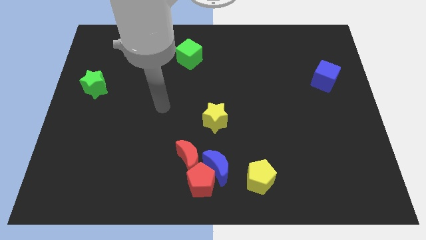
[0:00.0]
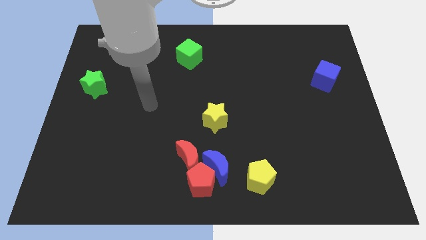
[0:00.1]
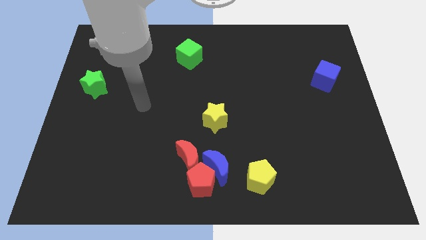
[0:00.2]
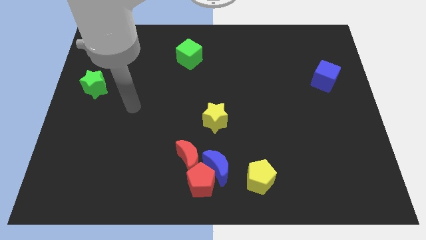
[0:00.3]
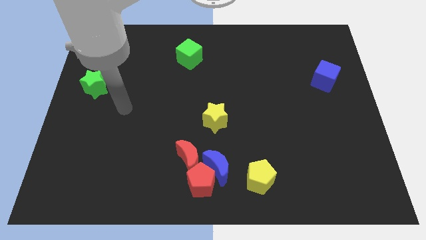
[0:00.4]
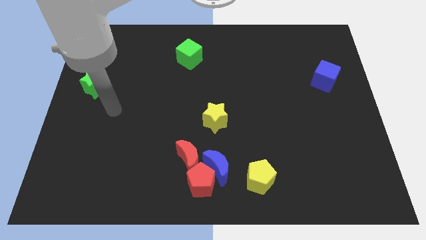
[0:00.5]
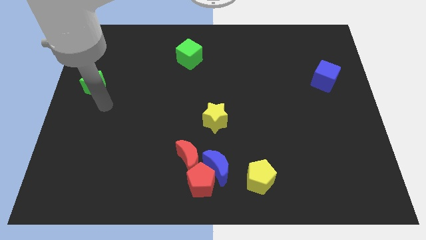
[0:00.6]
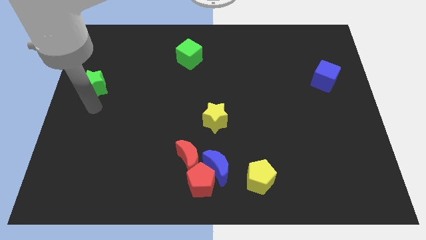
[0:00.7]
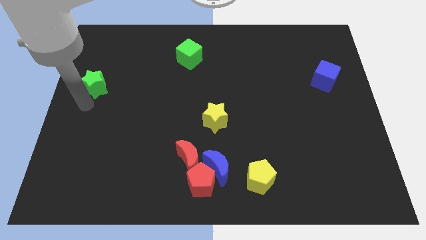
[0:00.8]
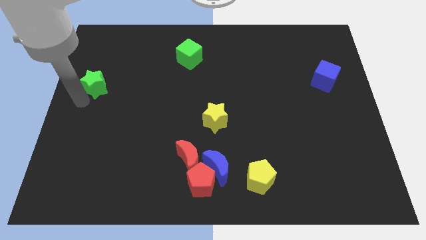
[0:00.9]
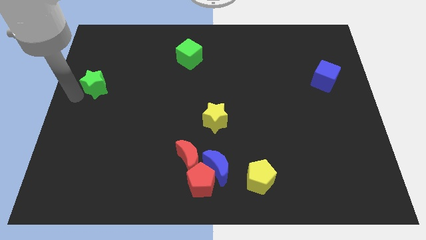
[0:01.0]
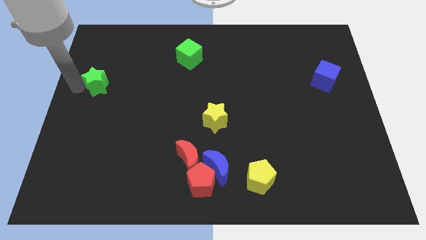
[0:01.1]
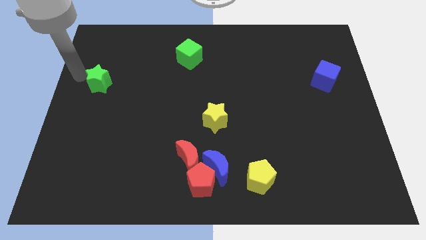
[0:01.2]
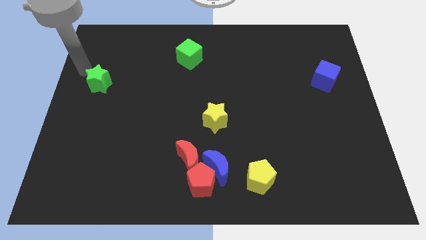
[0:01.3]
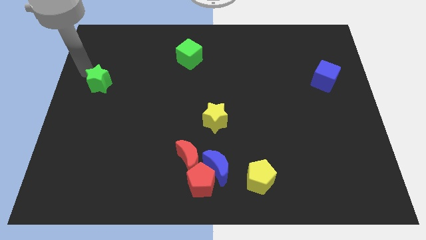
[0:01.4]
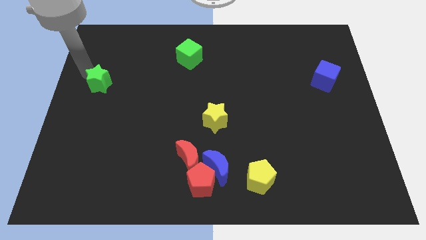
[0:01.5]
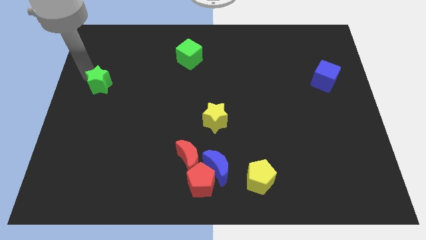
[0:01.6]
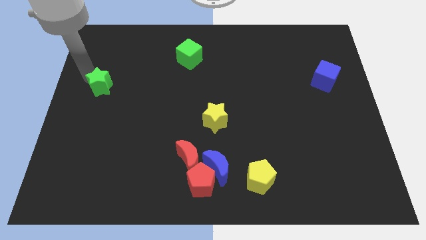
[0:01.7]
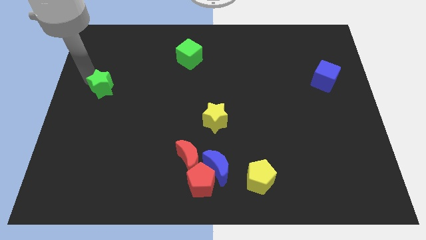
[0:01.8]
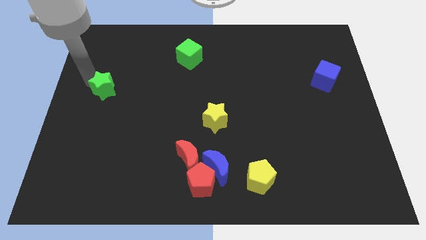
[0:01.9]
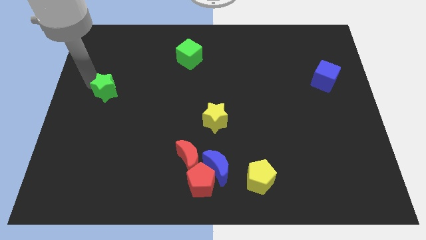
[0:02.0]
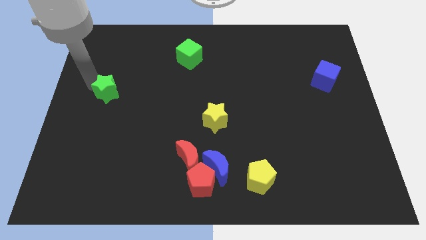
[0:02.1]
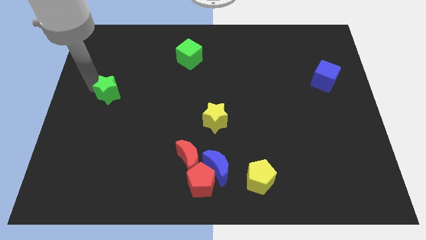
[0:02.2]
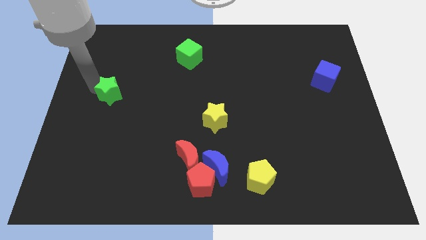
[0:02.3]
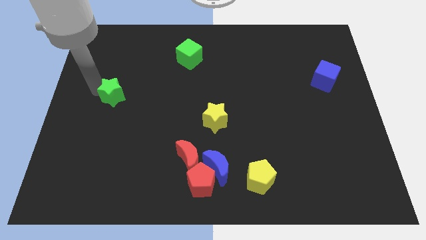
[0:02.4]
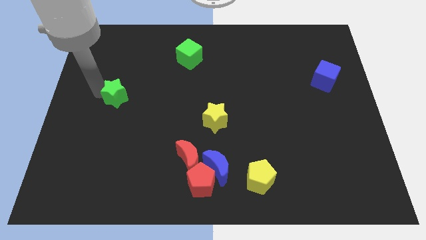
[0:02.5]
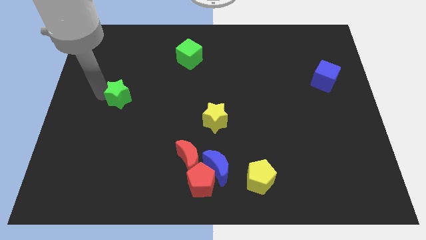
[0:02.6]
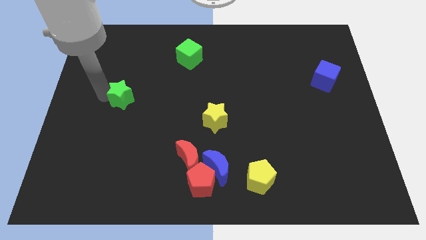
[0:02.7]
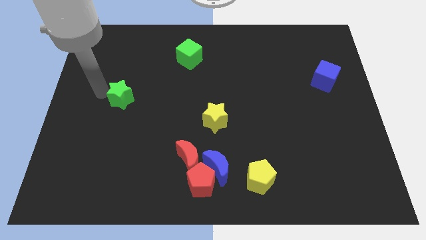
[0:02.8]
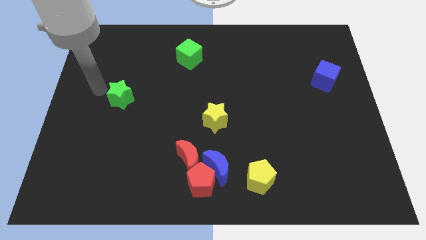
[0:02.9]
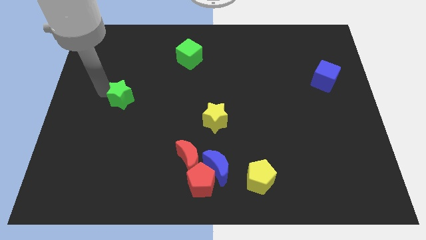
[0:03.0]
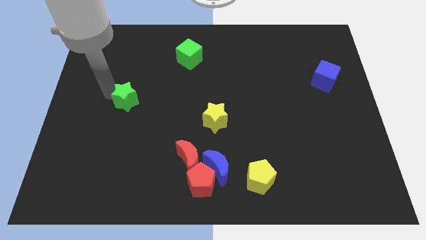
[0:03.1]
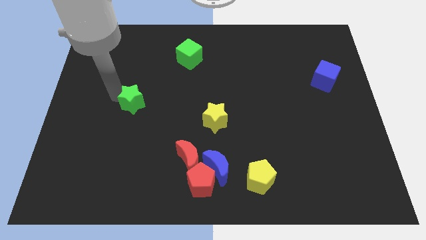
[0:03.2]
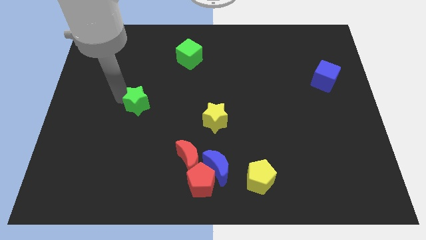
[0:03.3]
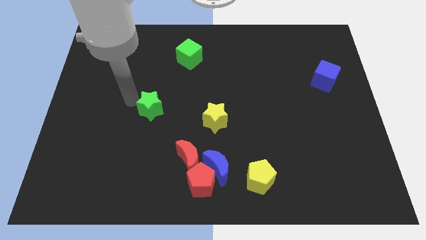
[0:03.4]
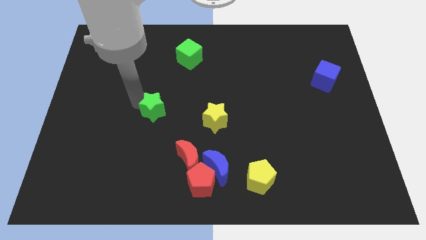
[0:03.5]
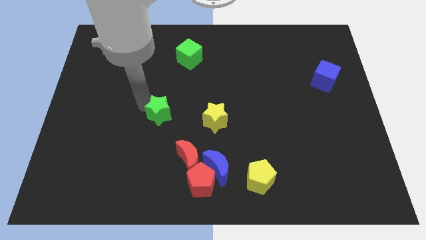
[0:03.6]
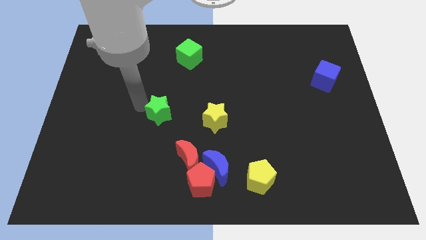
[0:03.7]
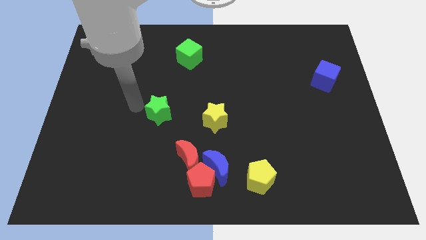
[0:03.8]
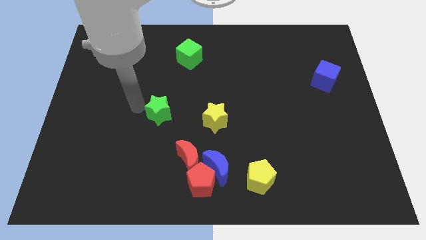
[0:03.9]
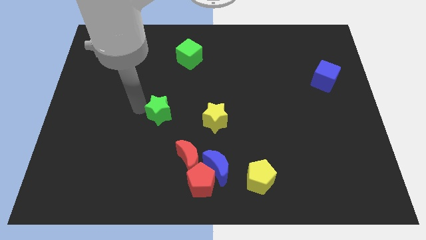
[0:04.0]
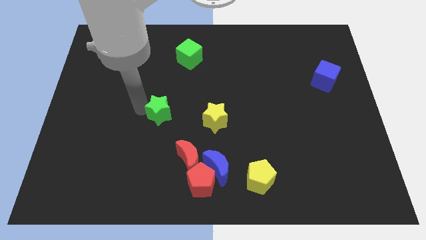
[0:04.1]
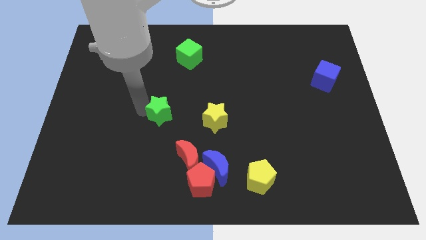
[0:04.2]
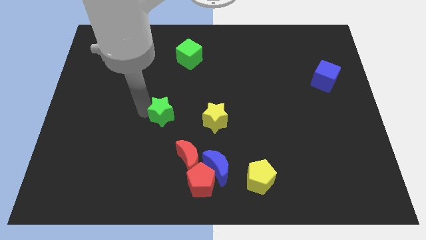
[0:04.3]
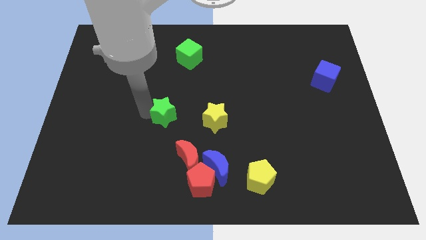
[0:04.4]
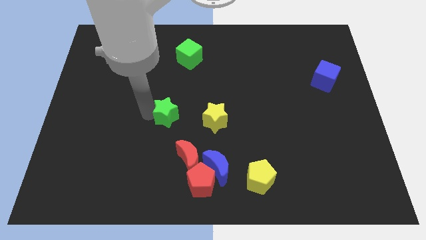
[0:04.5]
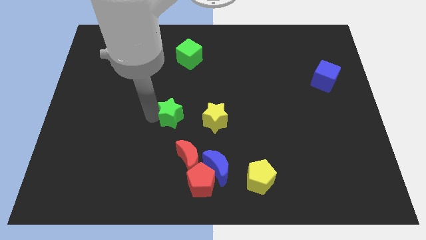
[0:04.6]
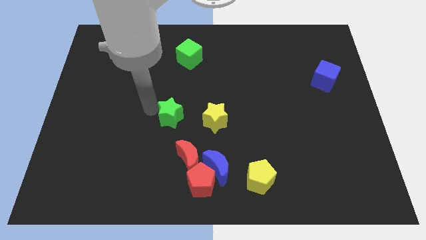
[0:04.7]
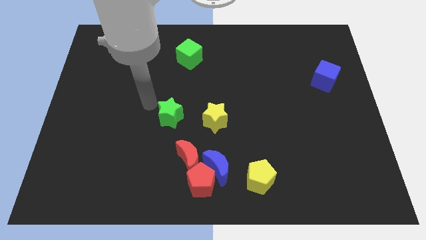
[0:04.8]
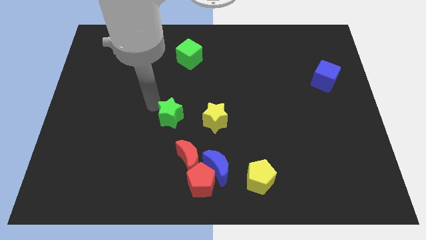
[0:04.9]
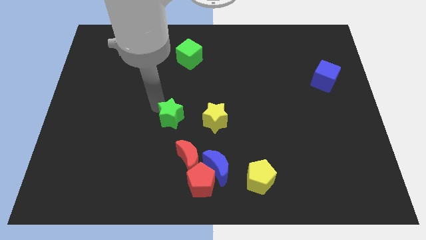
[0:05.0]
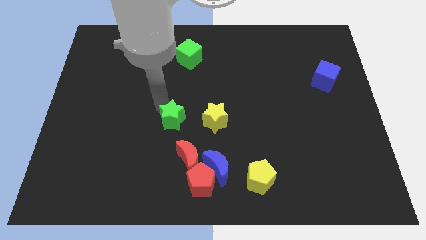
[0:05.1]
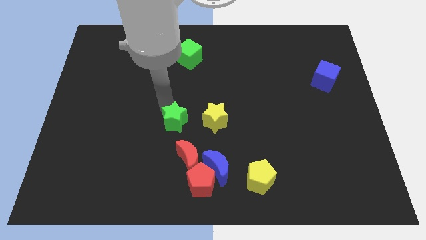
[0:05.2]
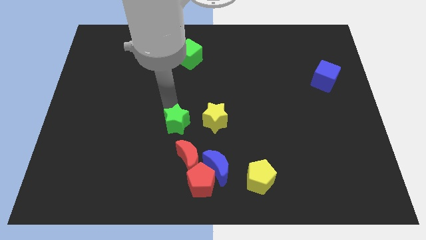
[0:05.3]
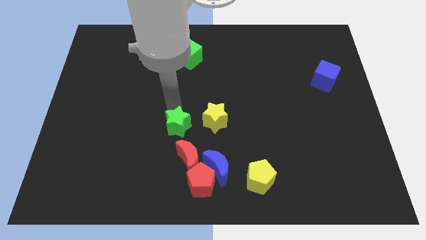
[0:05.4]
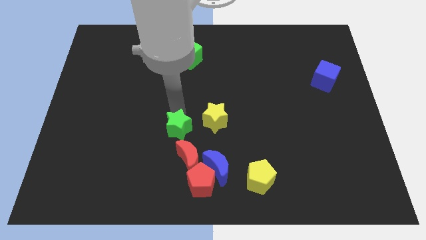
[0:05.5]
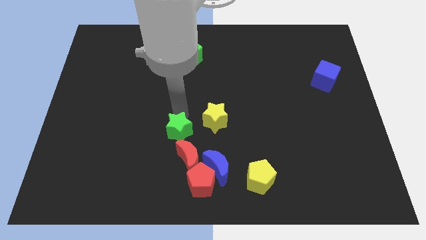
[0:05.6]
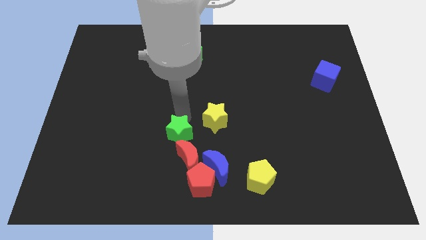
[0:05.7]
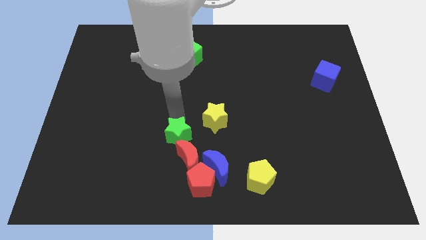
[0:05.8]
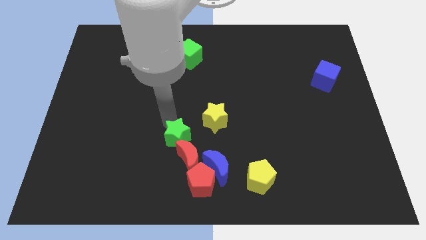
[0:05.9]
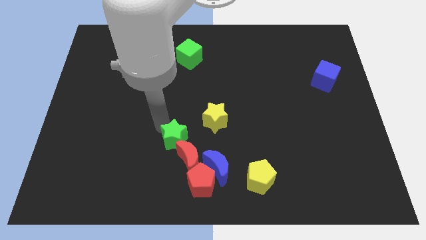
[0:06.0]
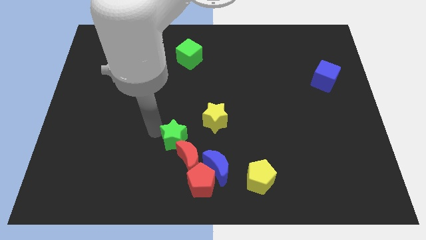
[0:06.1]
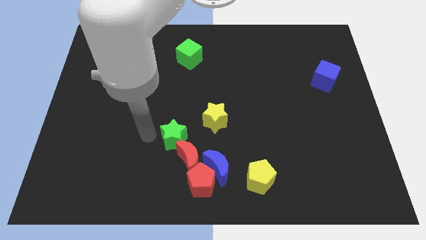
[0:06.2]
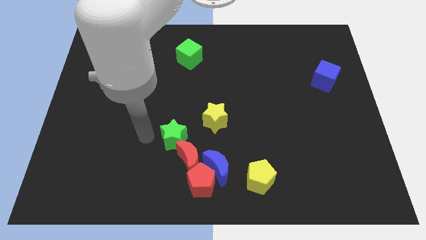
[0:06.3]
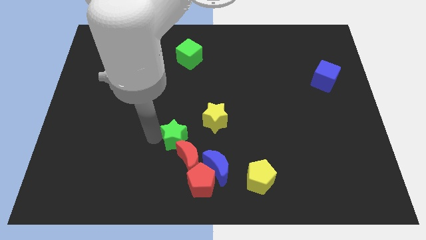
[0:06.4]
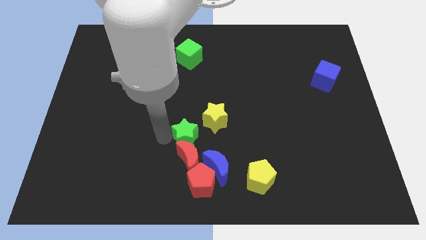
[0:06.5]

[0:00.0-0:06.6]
put the green star diagonally up and to the right of the red moon

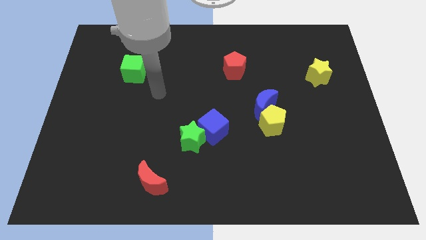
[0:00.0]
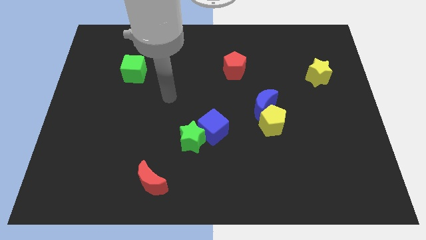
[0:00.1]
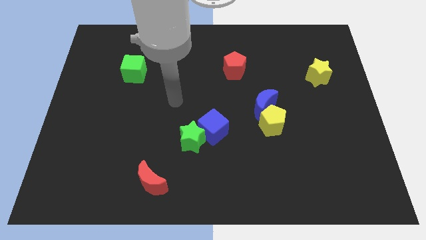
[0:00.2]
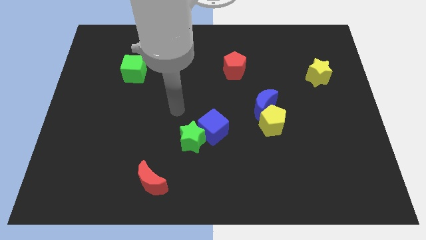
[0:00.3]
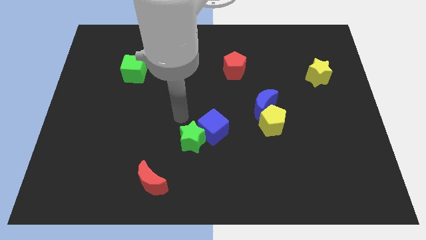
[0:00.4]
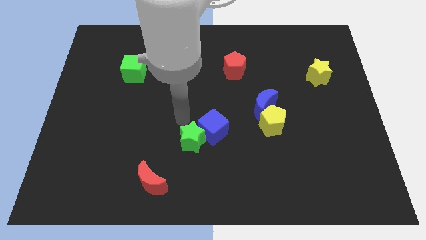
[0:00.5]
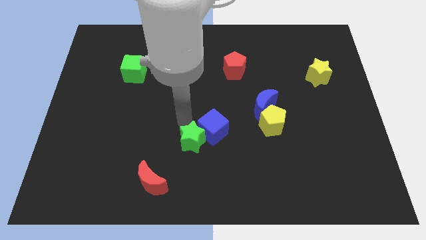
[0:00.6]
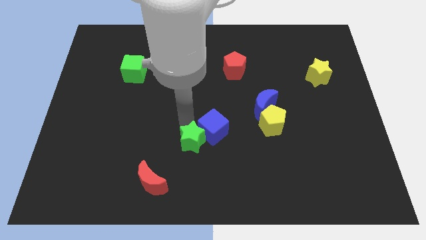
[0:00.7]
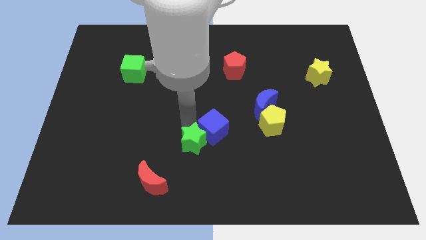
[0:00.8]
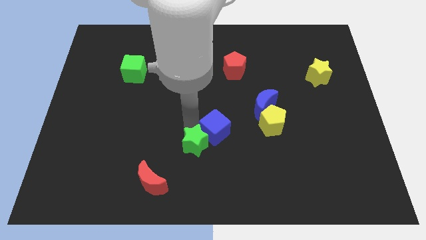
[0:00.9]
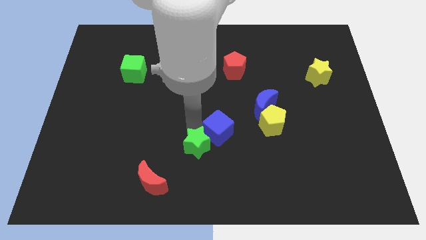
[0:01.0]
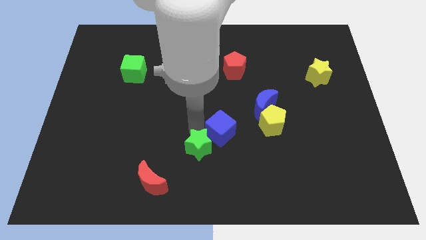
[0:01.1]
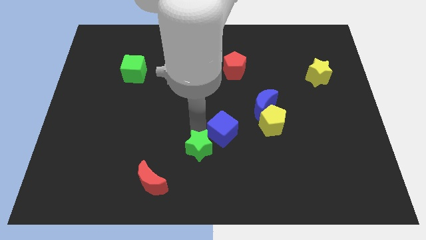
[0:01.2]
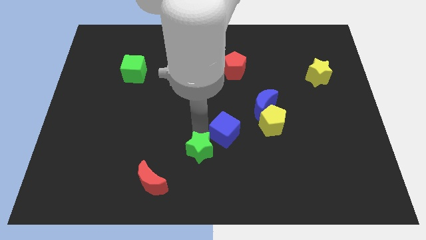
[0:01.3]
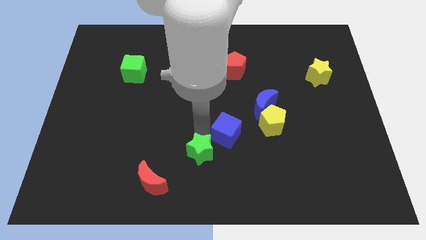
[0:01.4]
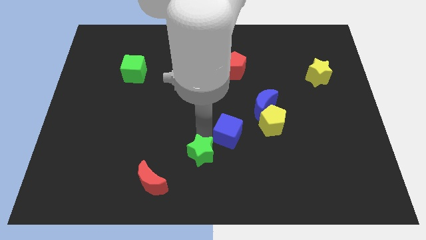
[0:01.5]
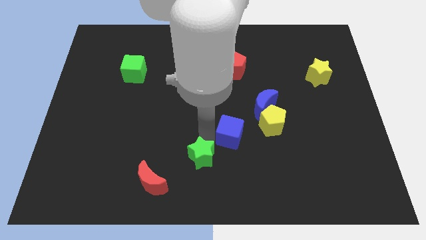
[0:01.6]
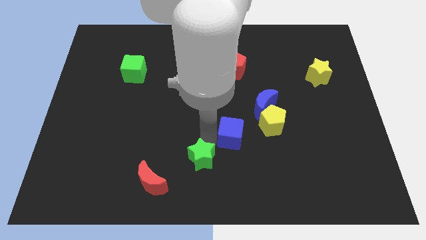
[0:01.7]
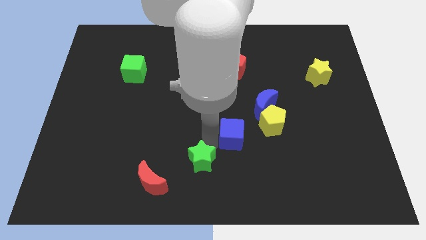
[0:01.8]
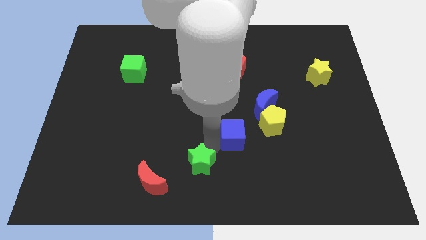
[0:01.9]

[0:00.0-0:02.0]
put the green star to the right side of the red moon
